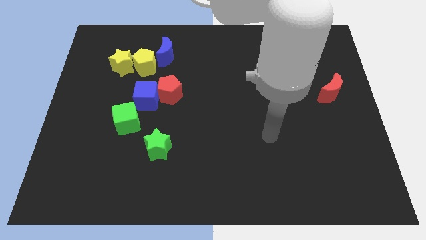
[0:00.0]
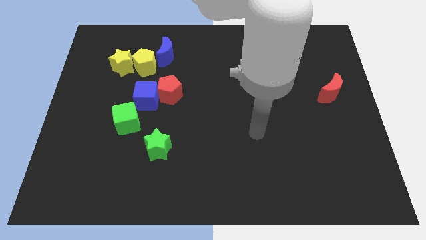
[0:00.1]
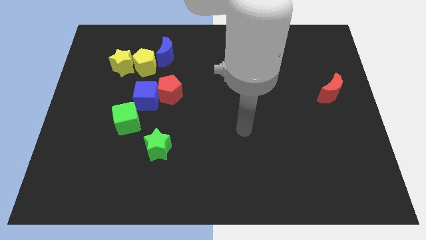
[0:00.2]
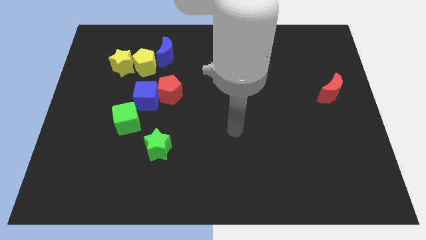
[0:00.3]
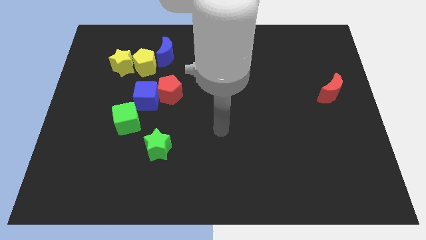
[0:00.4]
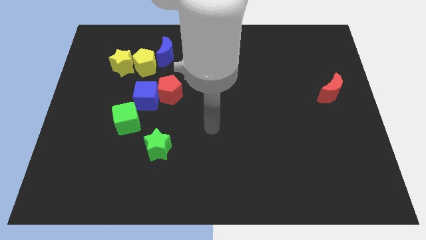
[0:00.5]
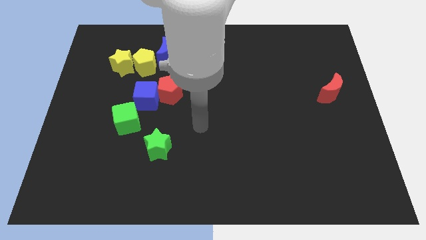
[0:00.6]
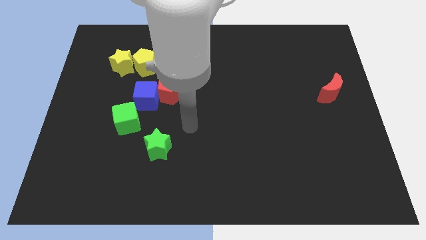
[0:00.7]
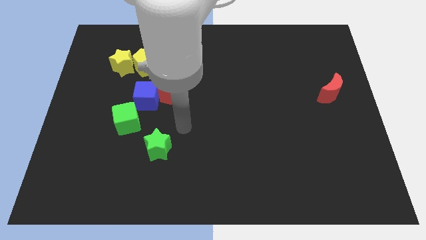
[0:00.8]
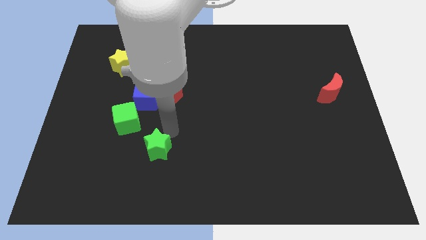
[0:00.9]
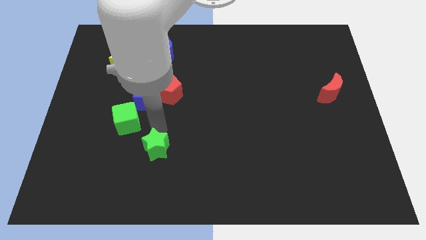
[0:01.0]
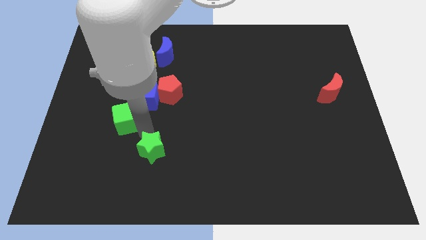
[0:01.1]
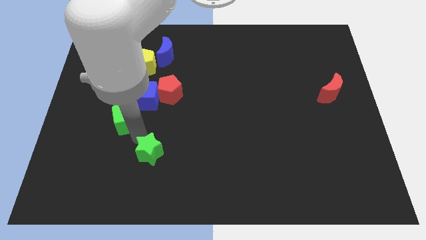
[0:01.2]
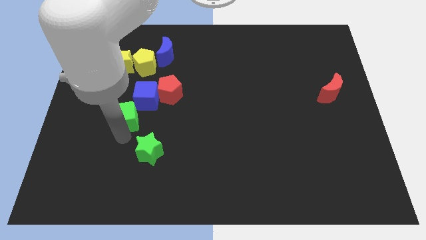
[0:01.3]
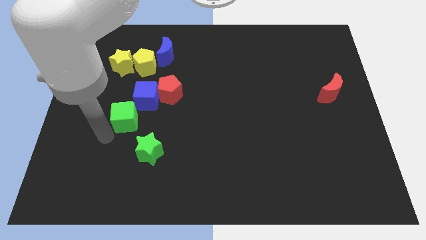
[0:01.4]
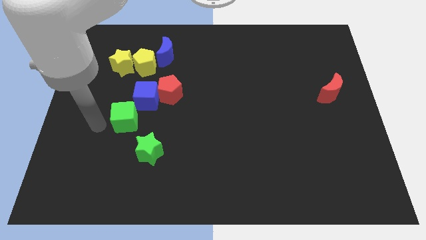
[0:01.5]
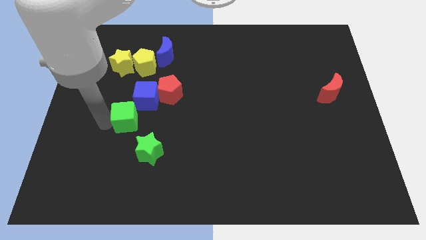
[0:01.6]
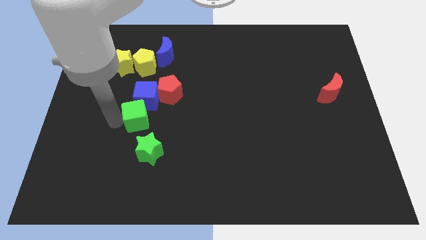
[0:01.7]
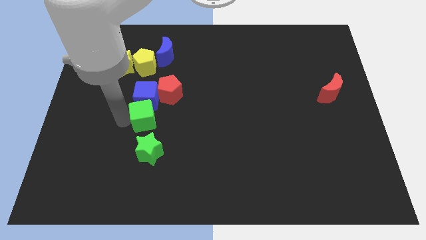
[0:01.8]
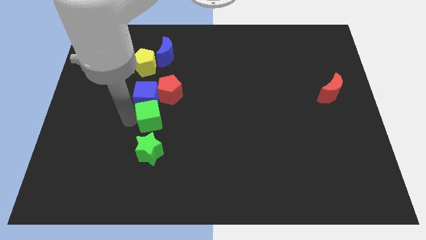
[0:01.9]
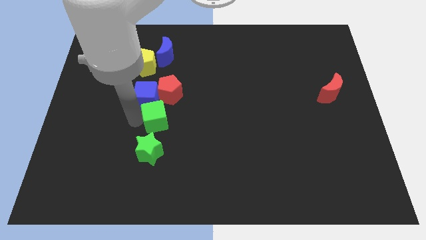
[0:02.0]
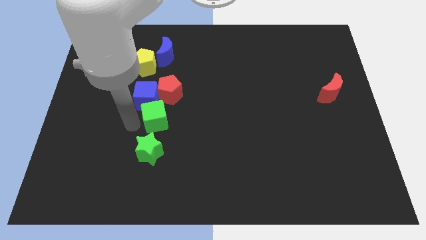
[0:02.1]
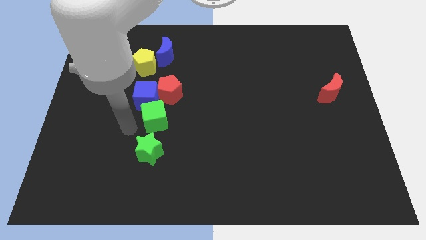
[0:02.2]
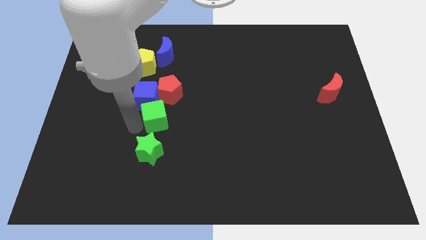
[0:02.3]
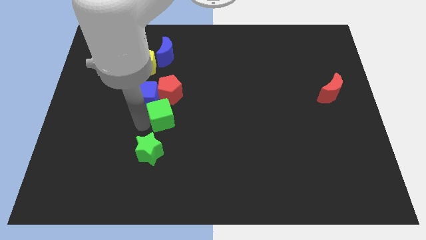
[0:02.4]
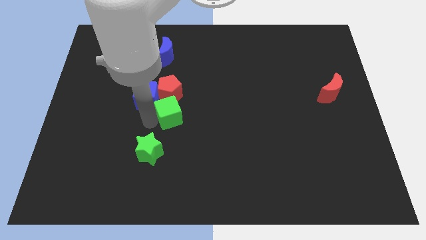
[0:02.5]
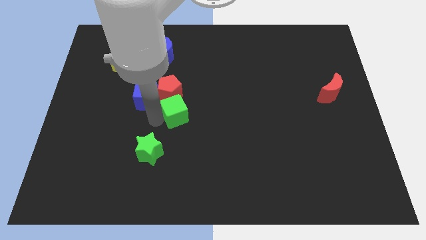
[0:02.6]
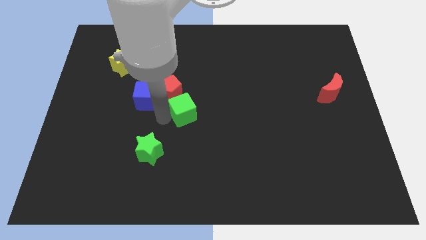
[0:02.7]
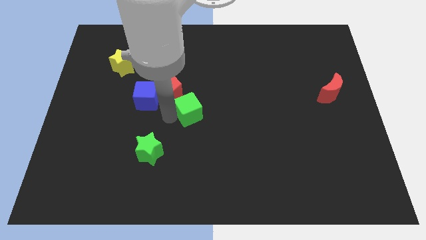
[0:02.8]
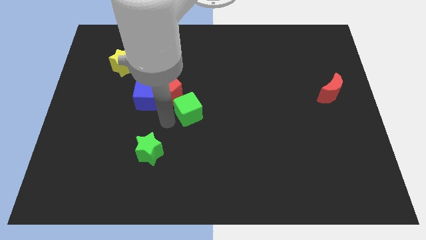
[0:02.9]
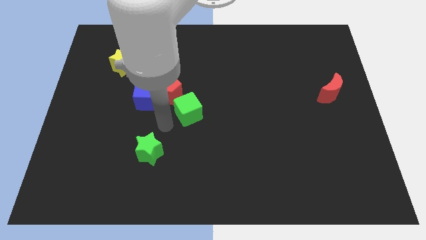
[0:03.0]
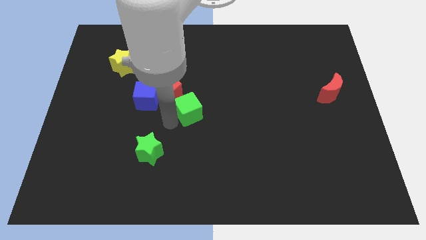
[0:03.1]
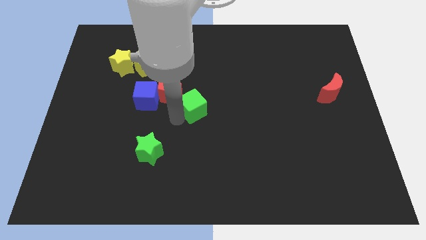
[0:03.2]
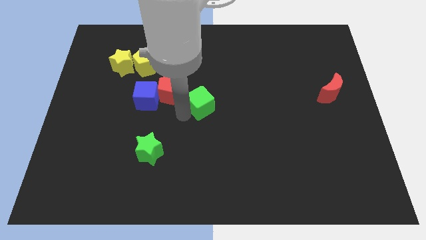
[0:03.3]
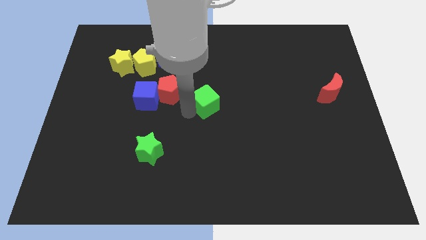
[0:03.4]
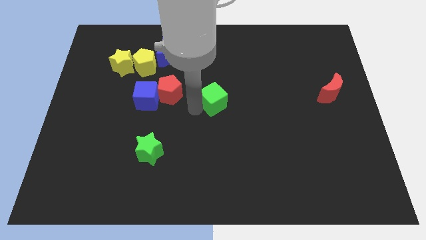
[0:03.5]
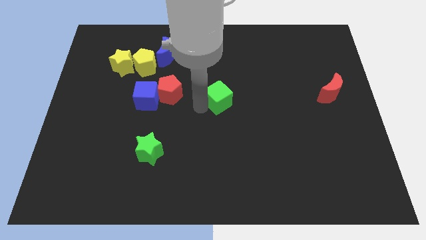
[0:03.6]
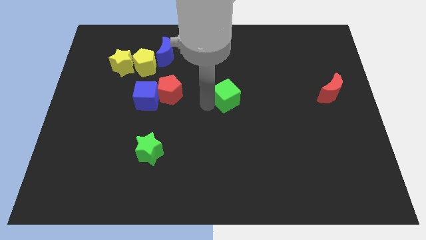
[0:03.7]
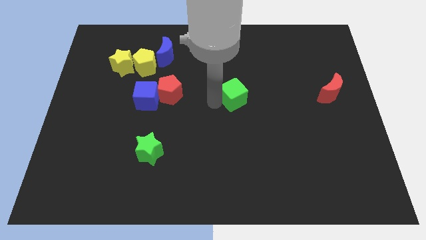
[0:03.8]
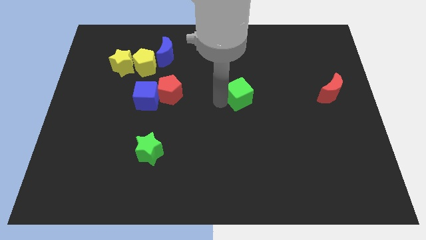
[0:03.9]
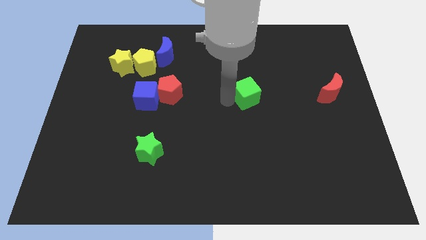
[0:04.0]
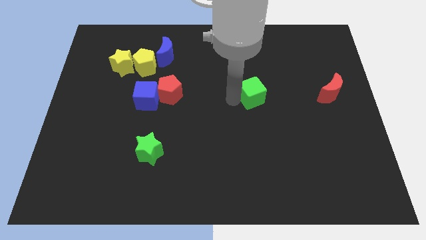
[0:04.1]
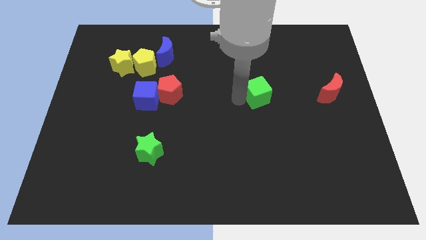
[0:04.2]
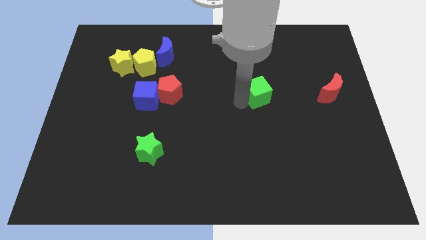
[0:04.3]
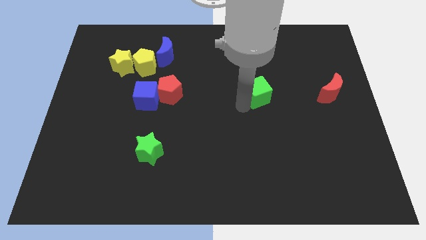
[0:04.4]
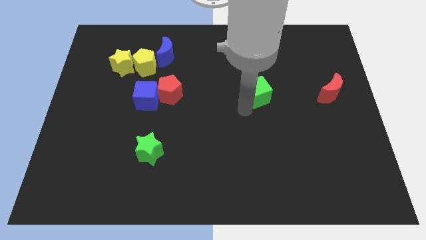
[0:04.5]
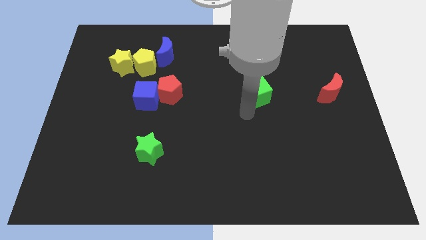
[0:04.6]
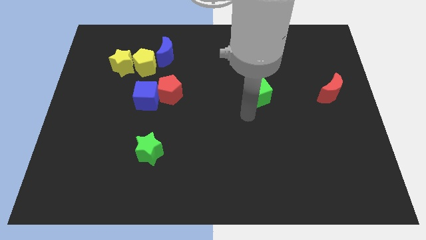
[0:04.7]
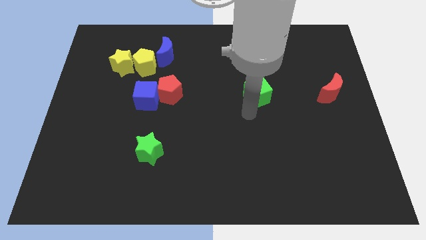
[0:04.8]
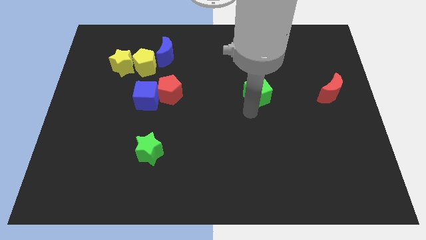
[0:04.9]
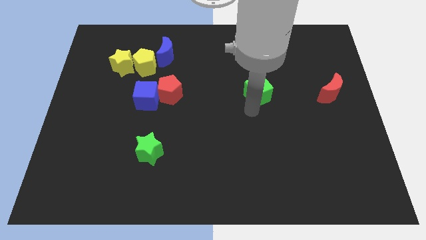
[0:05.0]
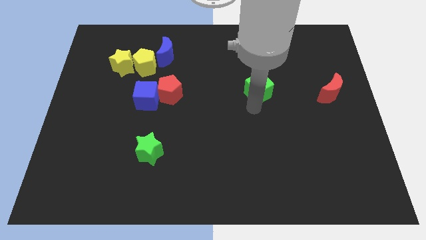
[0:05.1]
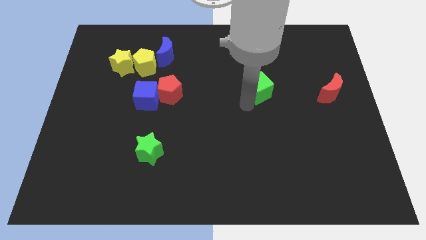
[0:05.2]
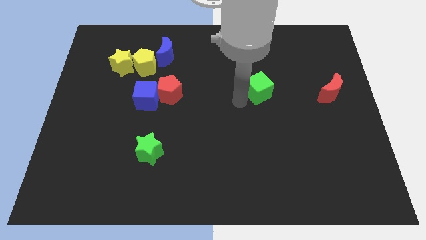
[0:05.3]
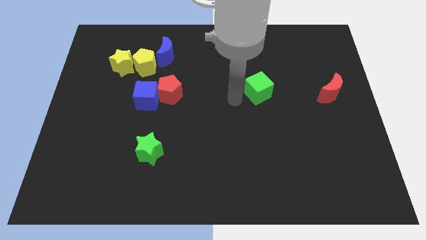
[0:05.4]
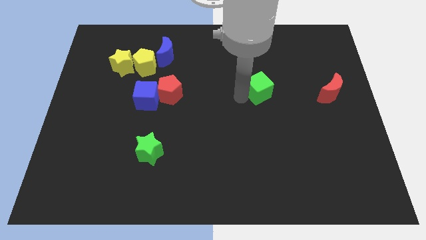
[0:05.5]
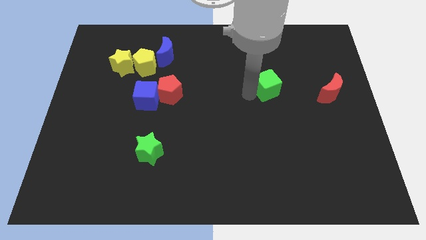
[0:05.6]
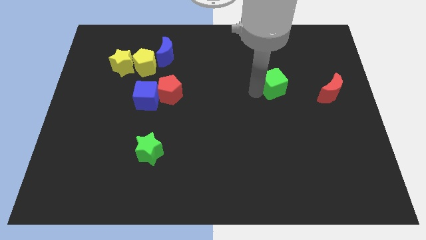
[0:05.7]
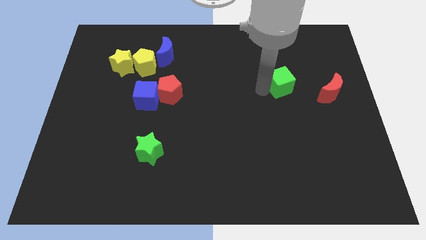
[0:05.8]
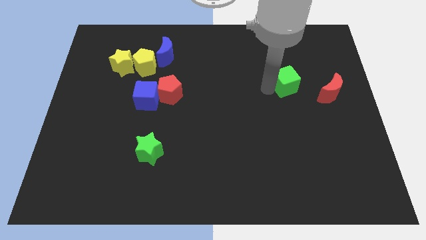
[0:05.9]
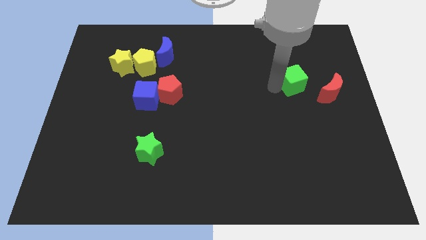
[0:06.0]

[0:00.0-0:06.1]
move the green cube diagonally up and to the left of the red moon

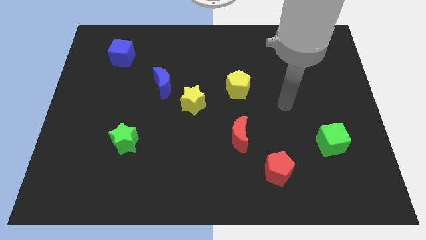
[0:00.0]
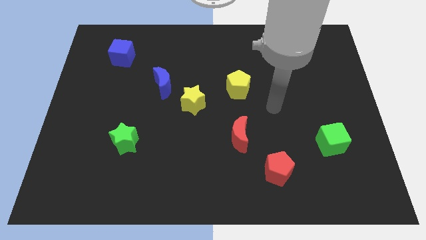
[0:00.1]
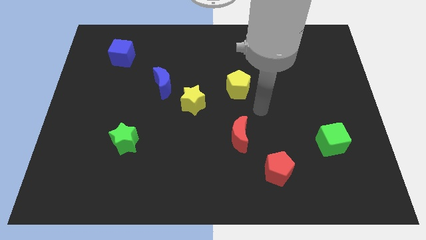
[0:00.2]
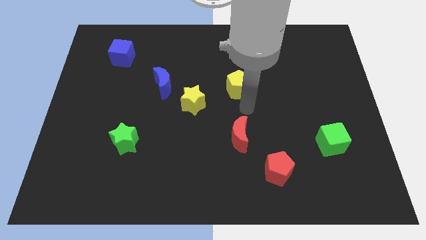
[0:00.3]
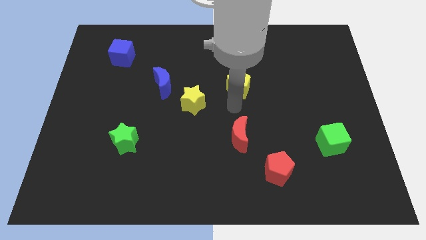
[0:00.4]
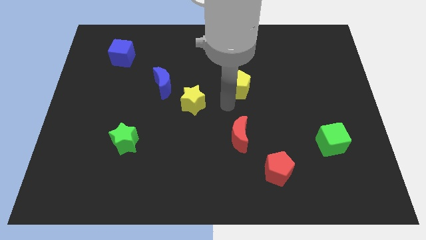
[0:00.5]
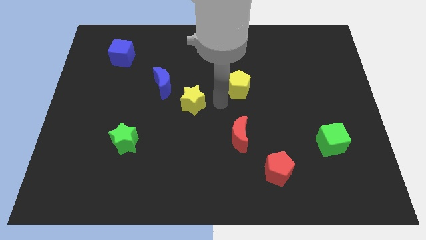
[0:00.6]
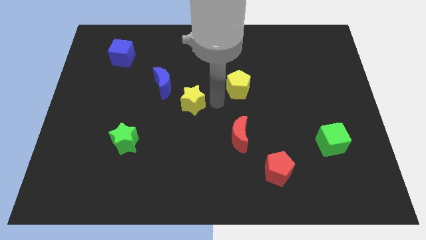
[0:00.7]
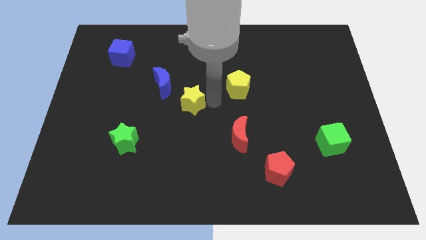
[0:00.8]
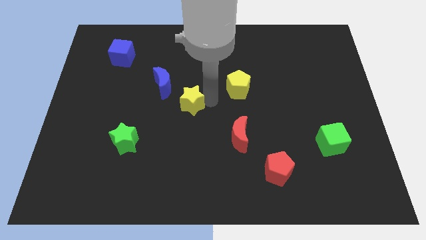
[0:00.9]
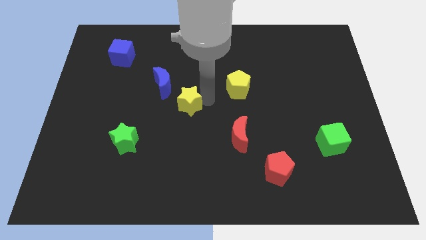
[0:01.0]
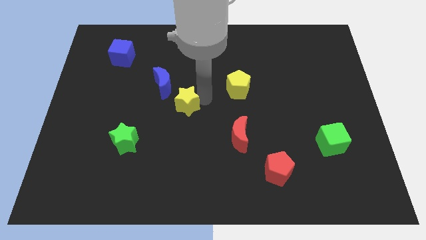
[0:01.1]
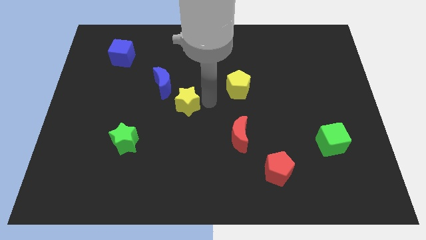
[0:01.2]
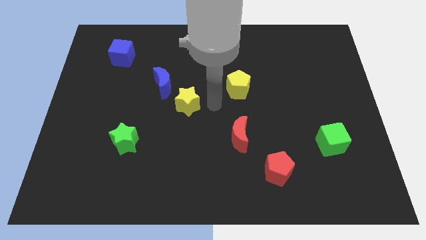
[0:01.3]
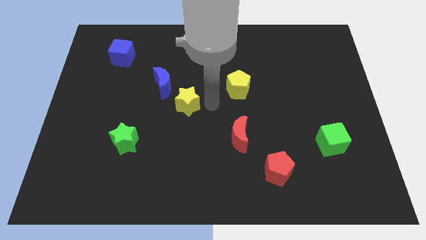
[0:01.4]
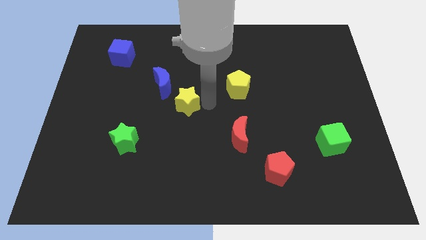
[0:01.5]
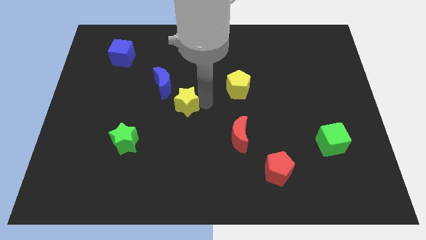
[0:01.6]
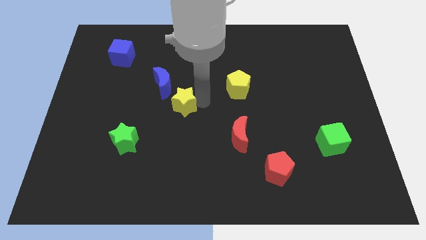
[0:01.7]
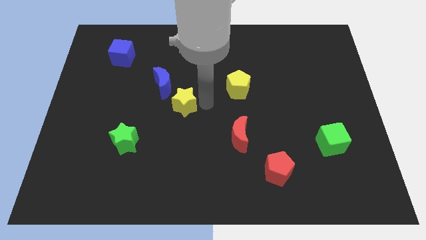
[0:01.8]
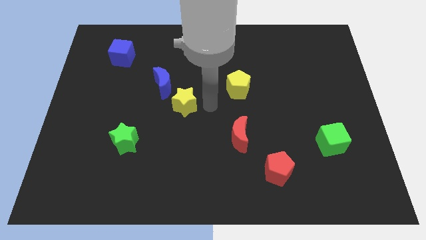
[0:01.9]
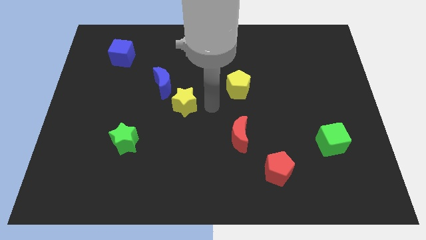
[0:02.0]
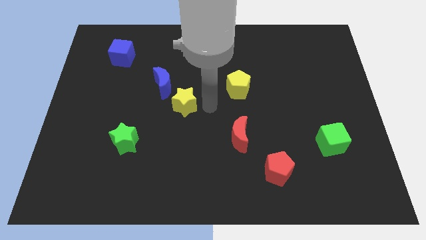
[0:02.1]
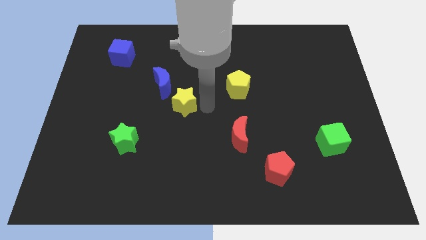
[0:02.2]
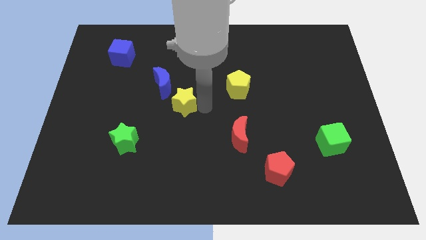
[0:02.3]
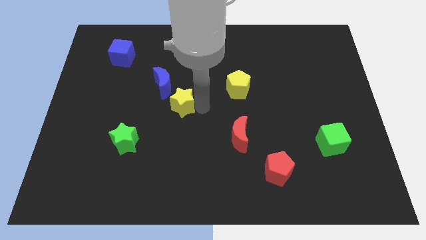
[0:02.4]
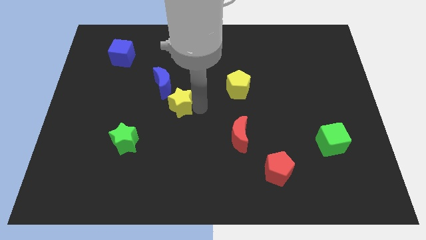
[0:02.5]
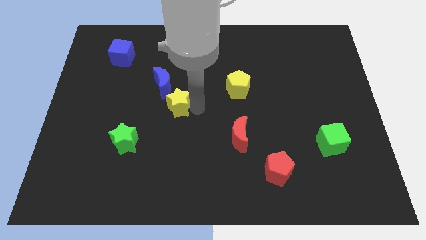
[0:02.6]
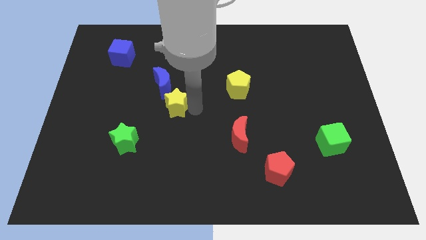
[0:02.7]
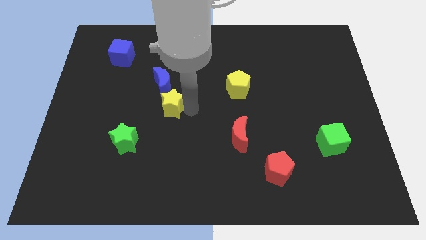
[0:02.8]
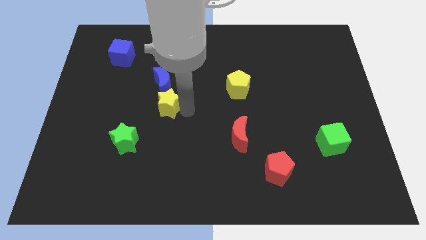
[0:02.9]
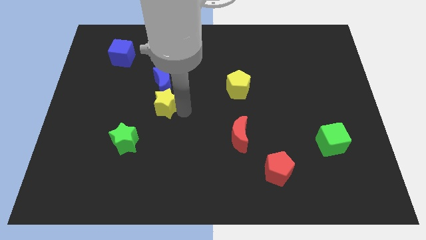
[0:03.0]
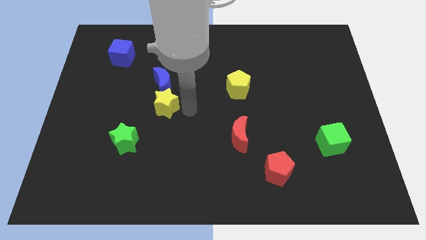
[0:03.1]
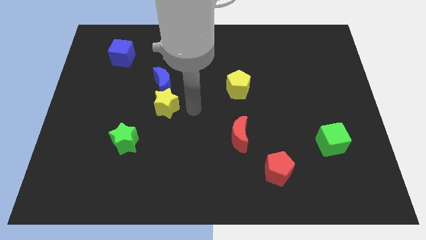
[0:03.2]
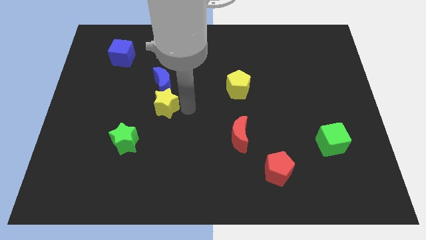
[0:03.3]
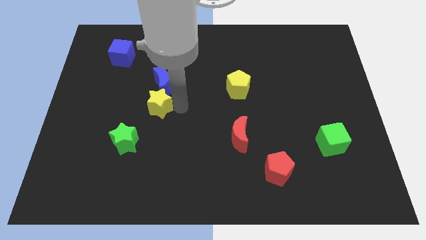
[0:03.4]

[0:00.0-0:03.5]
move the yellow star to the bottom left side of the blue moon
